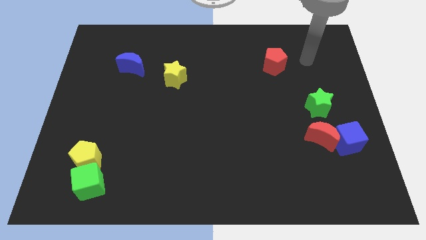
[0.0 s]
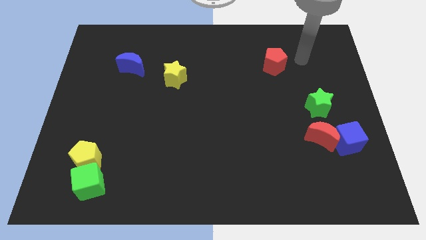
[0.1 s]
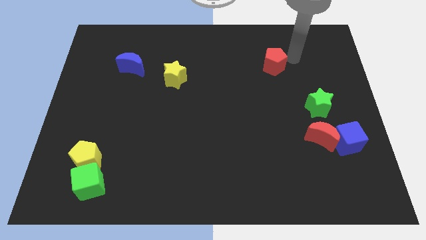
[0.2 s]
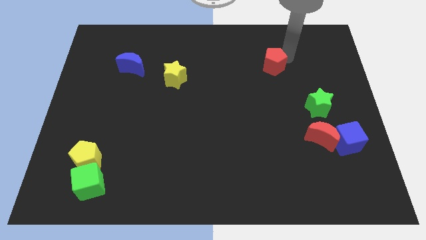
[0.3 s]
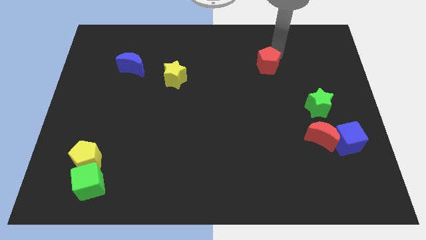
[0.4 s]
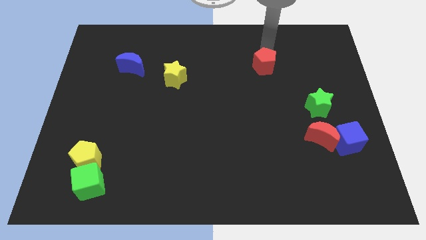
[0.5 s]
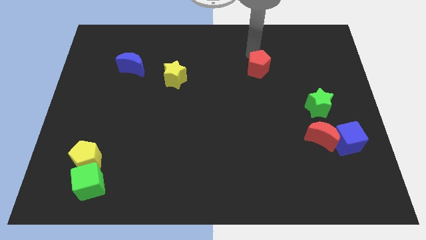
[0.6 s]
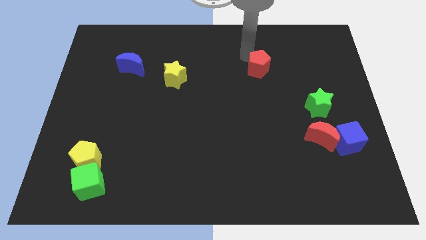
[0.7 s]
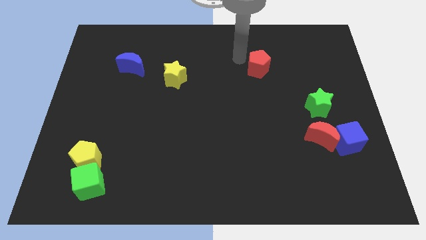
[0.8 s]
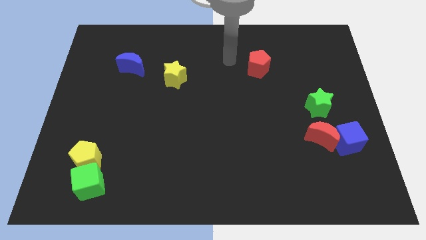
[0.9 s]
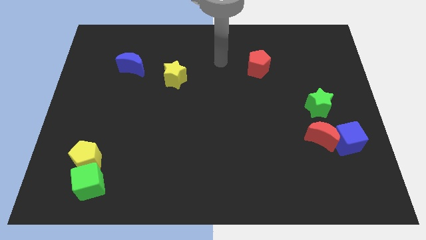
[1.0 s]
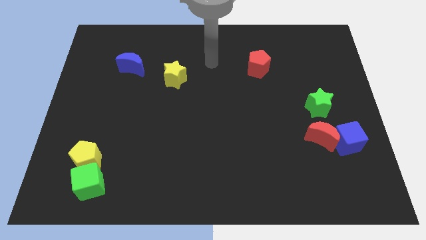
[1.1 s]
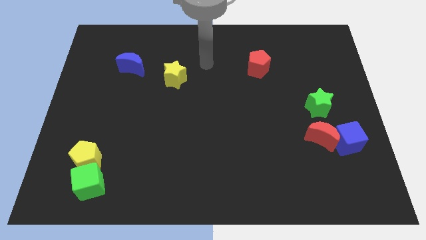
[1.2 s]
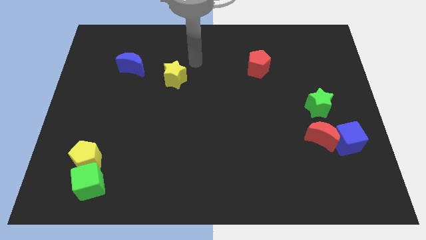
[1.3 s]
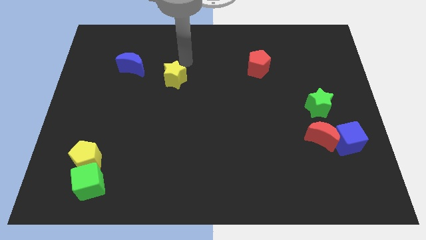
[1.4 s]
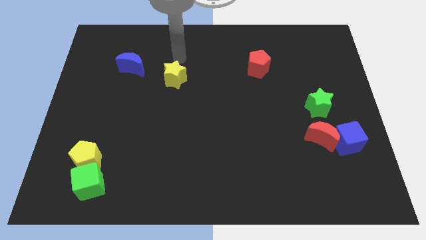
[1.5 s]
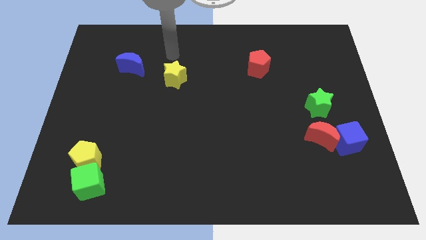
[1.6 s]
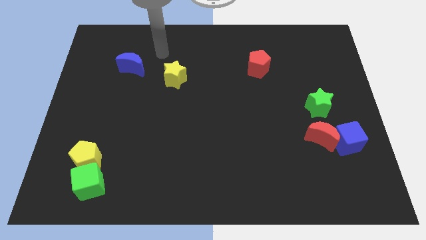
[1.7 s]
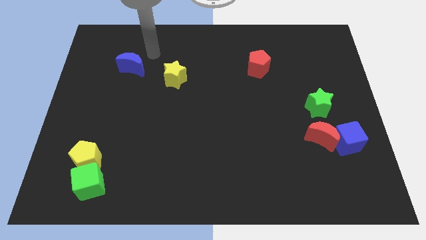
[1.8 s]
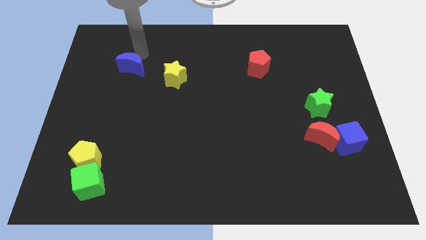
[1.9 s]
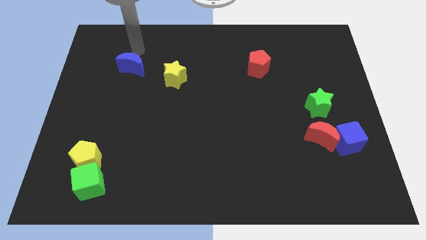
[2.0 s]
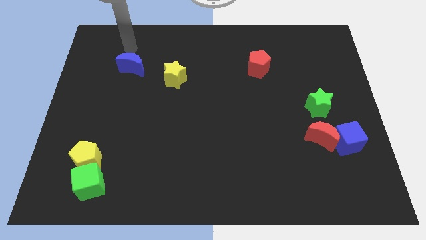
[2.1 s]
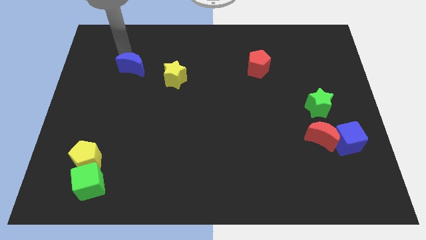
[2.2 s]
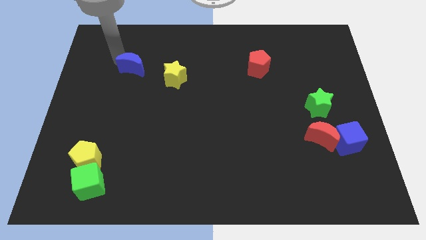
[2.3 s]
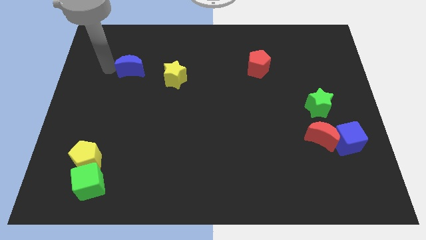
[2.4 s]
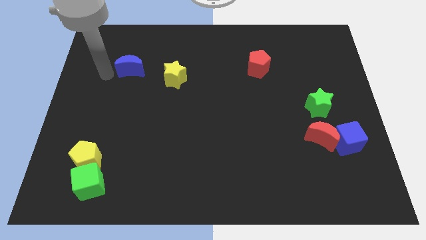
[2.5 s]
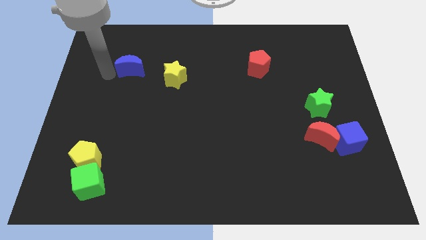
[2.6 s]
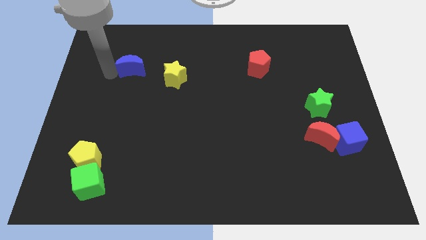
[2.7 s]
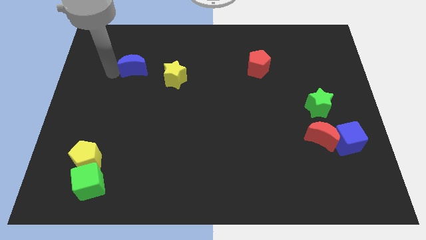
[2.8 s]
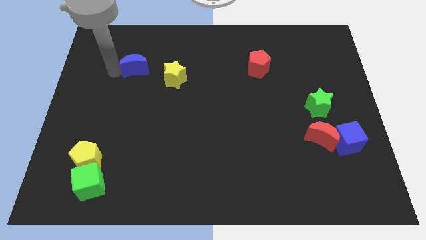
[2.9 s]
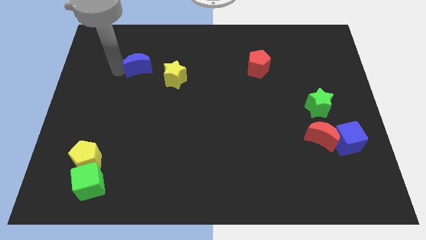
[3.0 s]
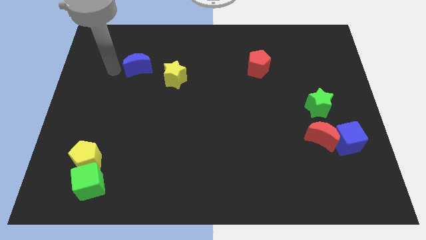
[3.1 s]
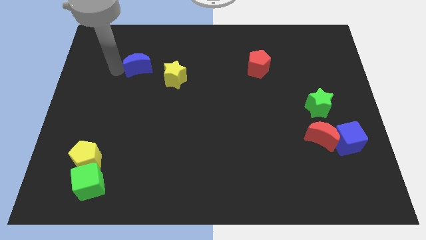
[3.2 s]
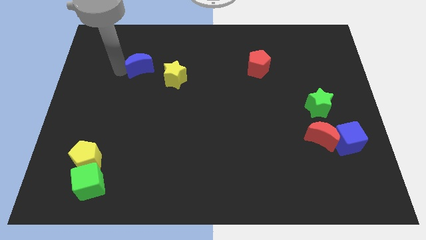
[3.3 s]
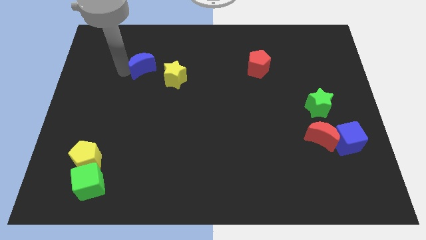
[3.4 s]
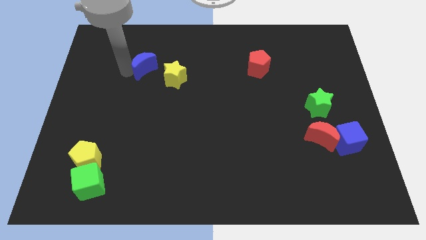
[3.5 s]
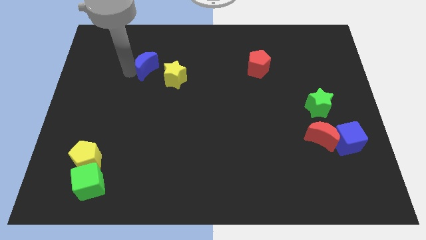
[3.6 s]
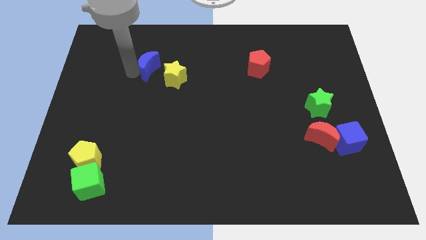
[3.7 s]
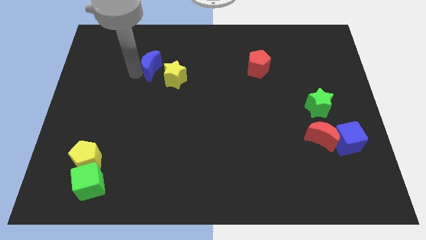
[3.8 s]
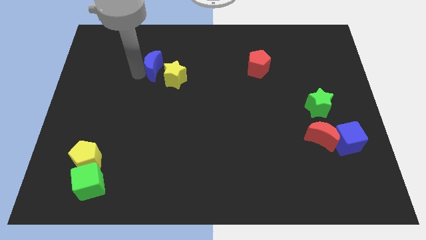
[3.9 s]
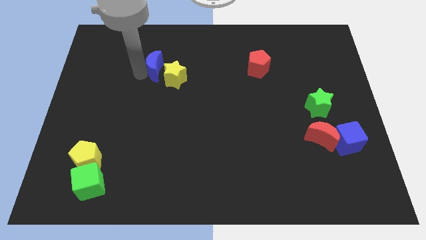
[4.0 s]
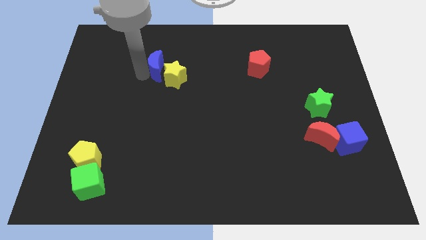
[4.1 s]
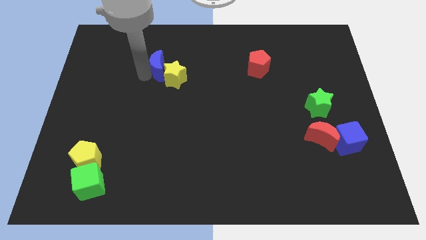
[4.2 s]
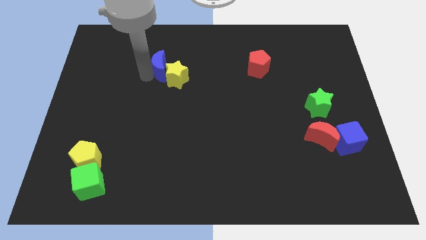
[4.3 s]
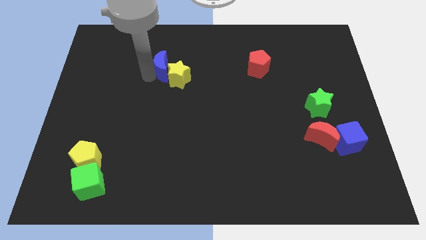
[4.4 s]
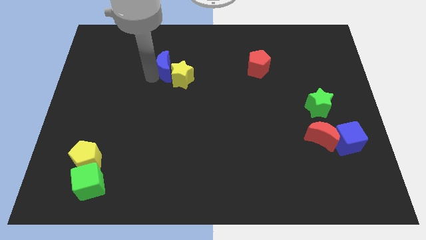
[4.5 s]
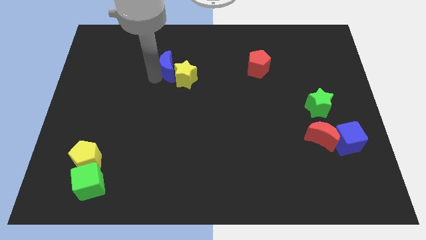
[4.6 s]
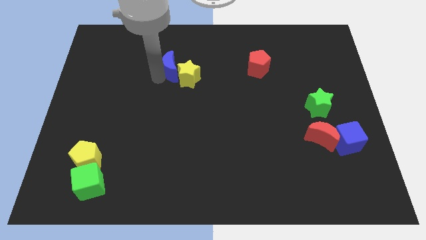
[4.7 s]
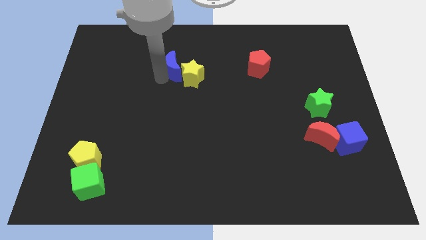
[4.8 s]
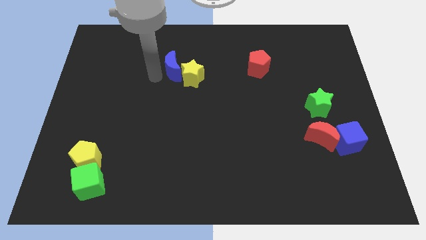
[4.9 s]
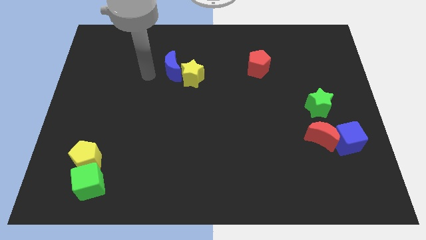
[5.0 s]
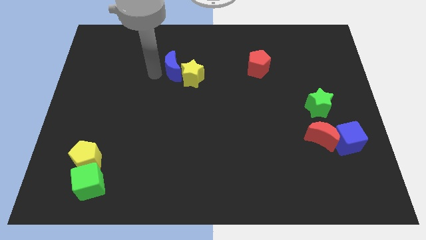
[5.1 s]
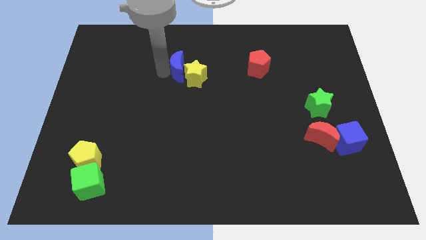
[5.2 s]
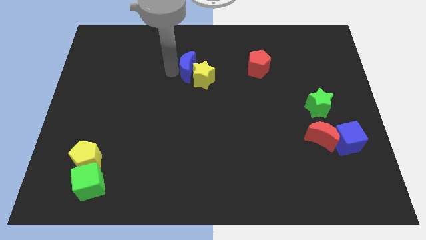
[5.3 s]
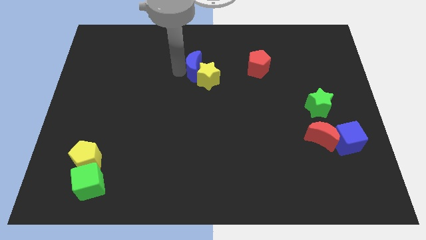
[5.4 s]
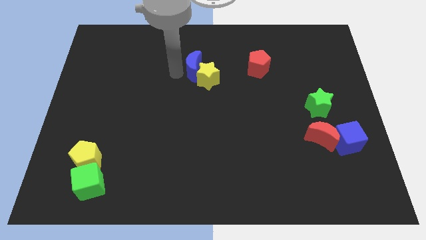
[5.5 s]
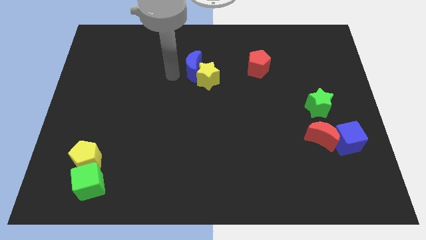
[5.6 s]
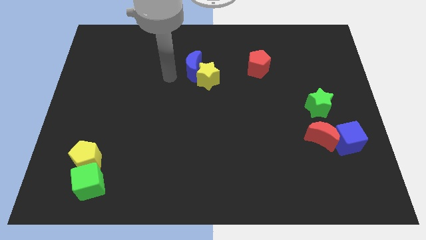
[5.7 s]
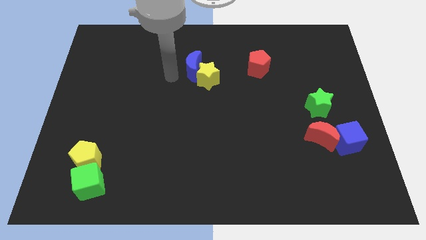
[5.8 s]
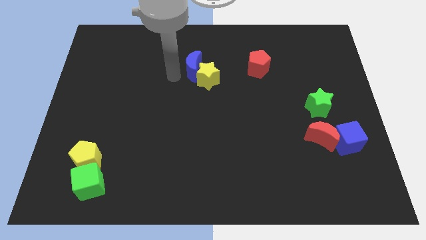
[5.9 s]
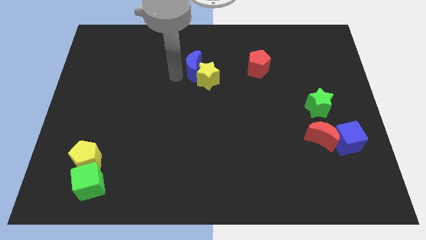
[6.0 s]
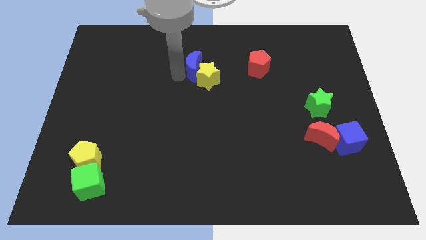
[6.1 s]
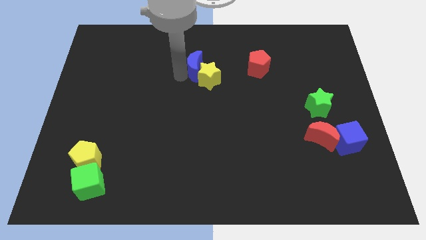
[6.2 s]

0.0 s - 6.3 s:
slide the blue moon just left of the red pentagon
